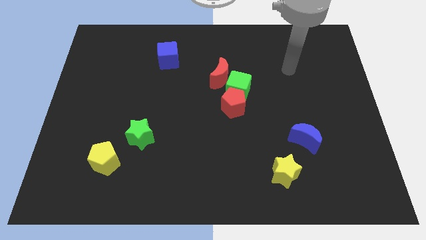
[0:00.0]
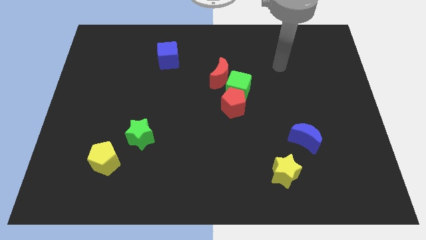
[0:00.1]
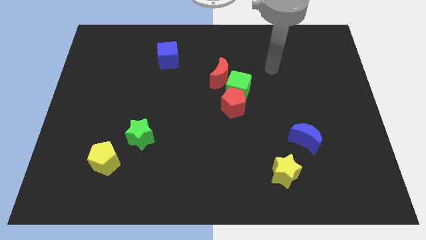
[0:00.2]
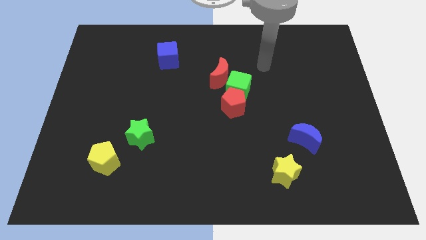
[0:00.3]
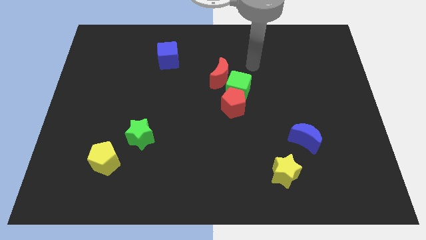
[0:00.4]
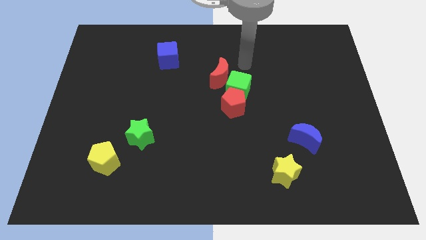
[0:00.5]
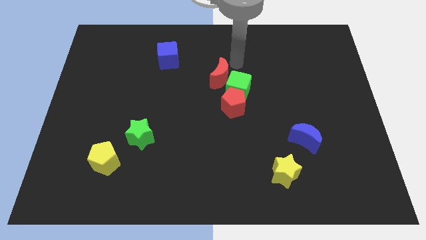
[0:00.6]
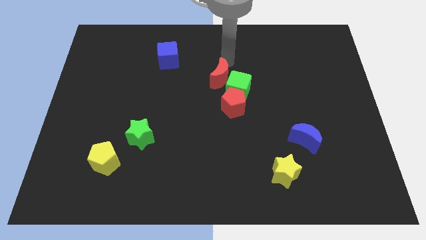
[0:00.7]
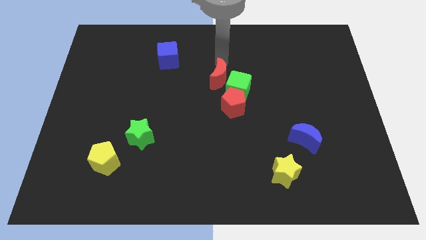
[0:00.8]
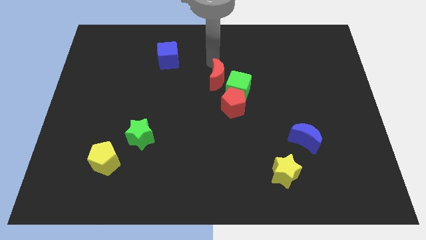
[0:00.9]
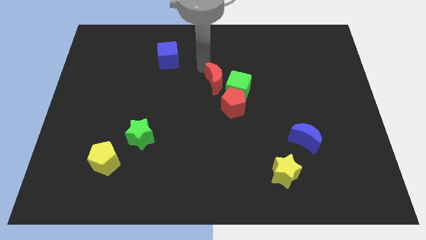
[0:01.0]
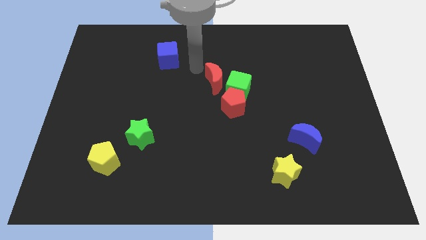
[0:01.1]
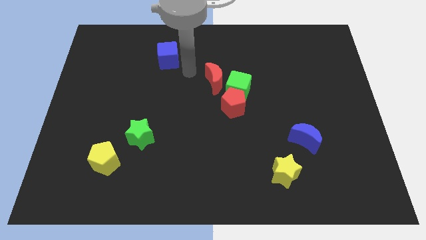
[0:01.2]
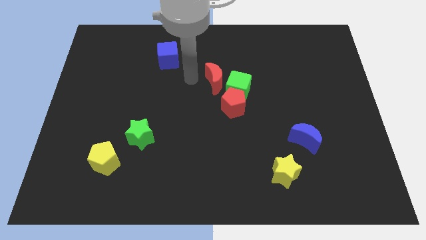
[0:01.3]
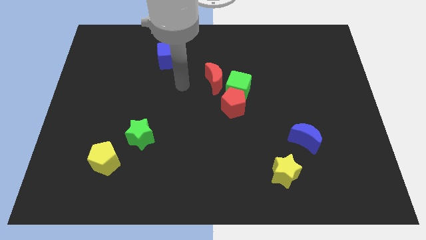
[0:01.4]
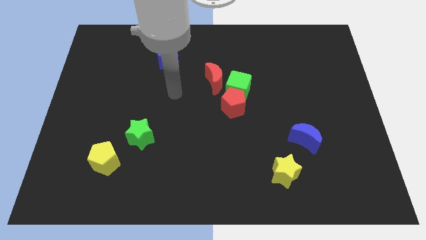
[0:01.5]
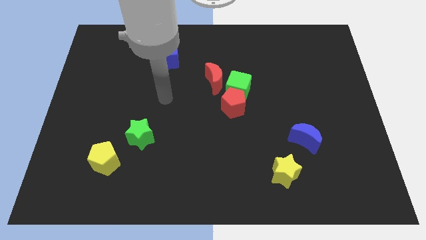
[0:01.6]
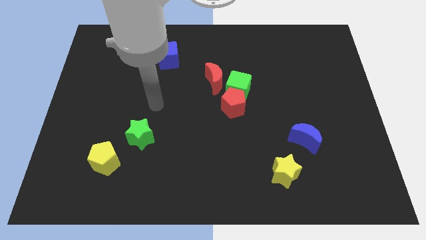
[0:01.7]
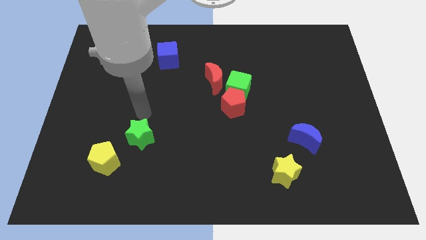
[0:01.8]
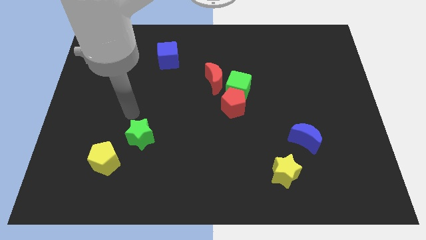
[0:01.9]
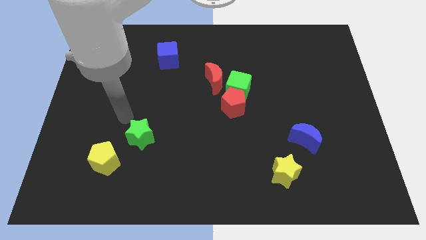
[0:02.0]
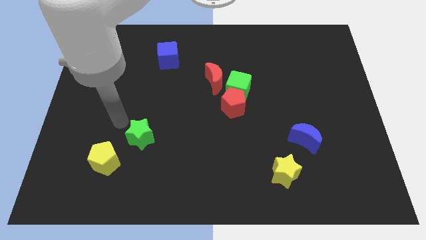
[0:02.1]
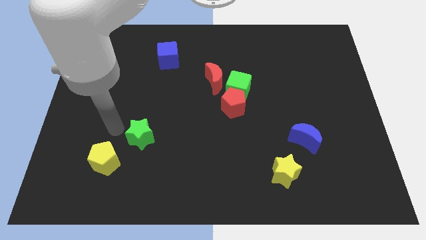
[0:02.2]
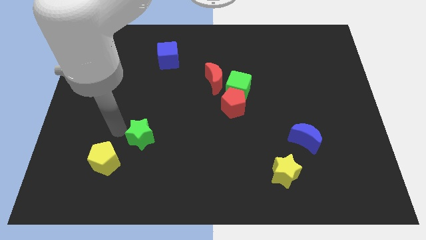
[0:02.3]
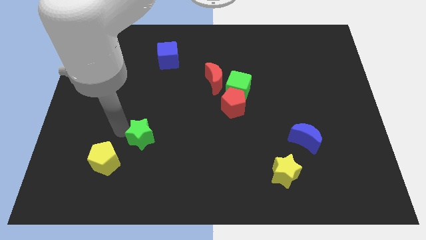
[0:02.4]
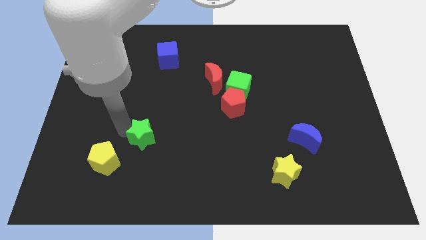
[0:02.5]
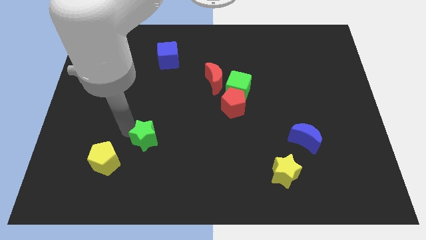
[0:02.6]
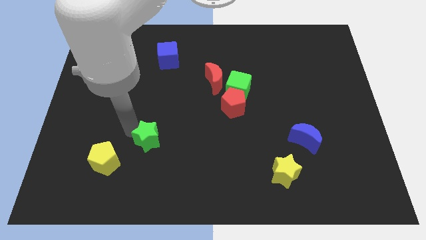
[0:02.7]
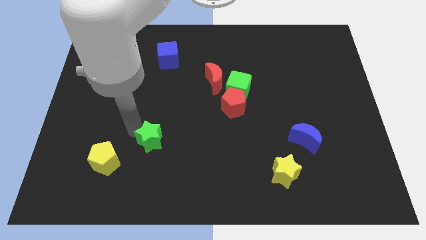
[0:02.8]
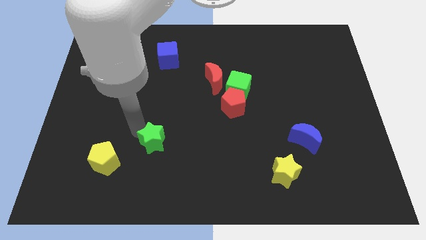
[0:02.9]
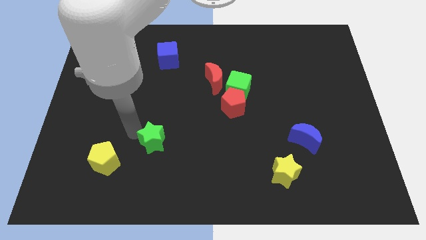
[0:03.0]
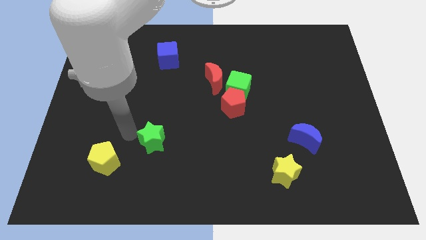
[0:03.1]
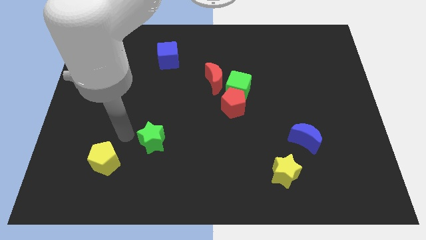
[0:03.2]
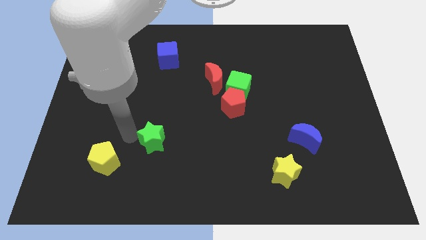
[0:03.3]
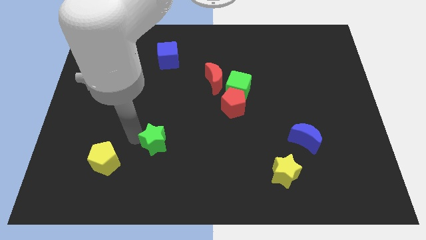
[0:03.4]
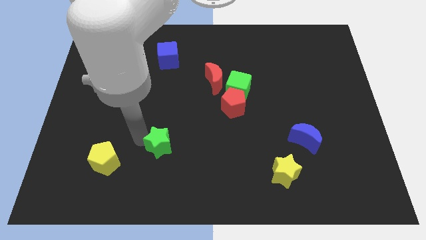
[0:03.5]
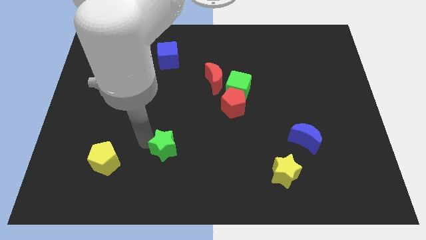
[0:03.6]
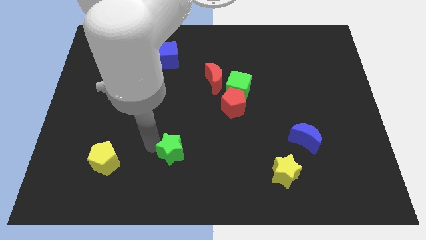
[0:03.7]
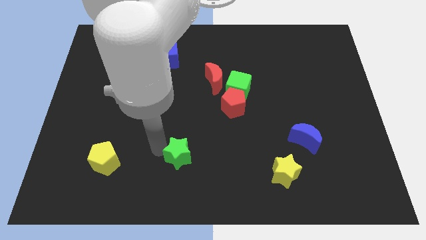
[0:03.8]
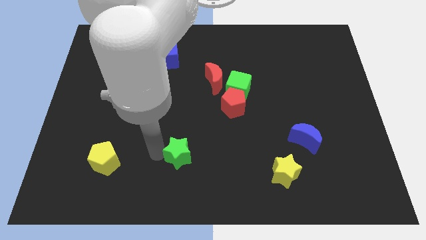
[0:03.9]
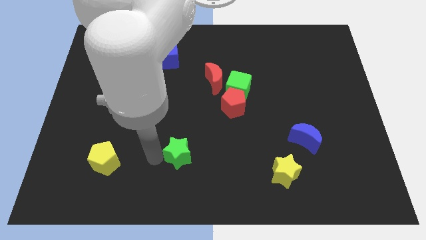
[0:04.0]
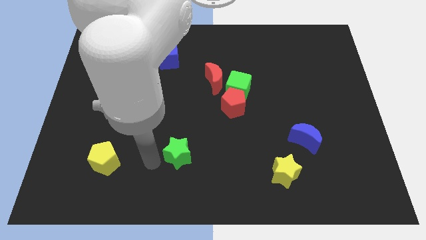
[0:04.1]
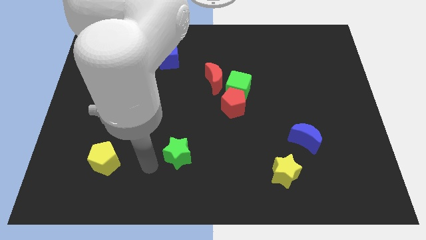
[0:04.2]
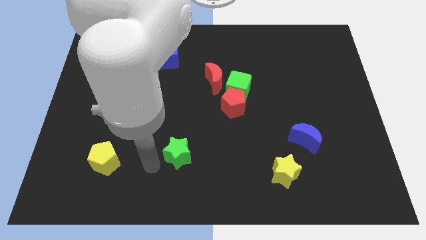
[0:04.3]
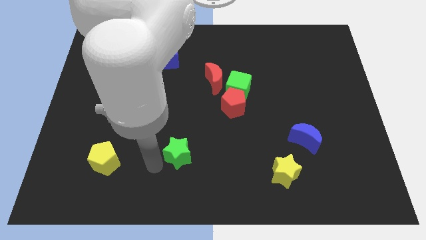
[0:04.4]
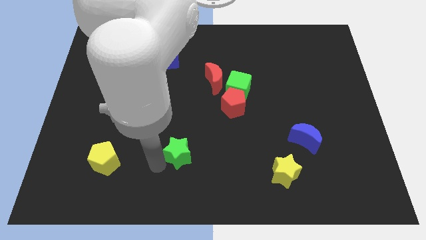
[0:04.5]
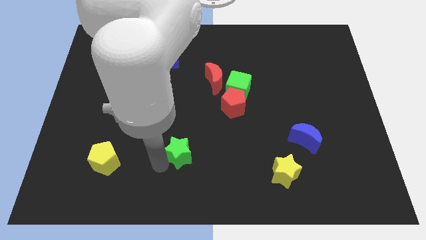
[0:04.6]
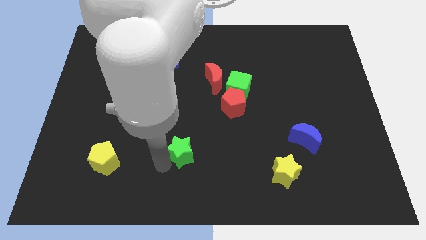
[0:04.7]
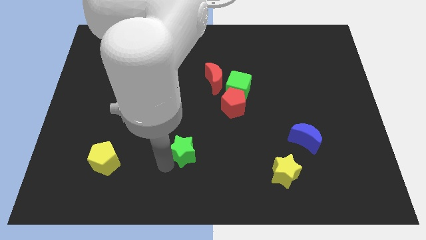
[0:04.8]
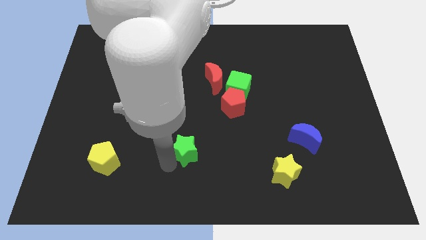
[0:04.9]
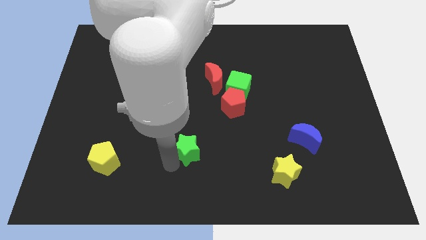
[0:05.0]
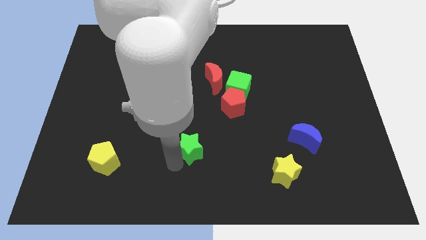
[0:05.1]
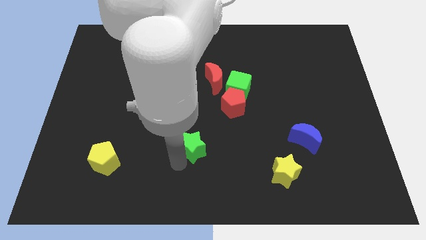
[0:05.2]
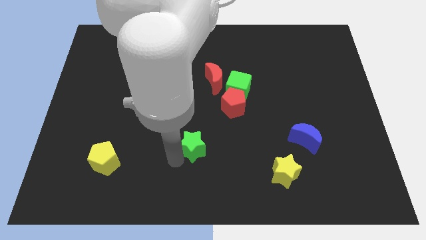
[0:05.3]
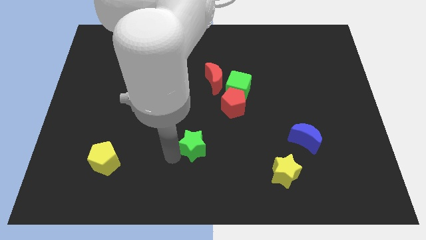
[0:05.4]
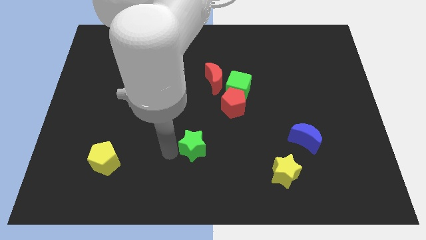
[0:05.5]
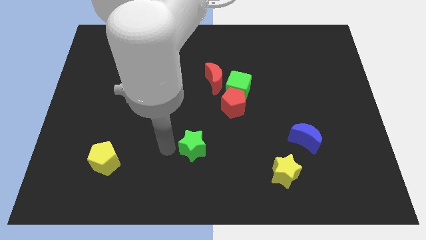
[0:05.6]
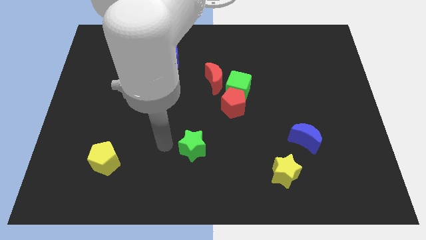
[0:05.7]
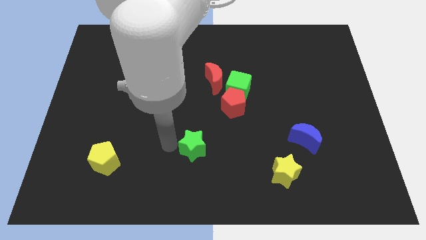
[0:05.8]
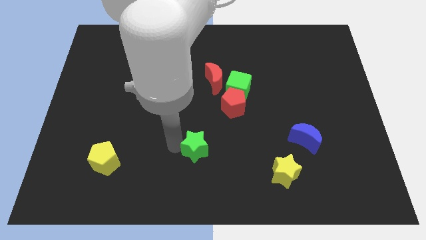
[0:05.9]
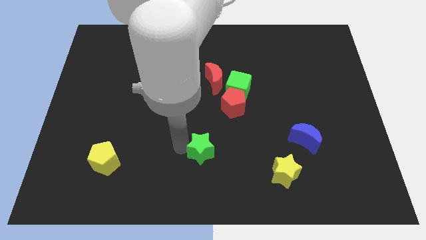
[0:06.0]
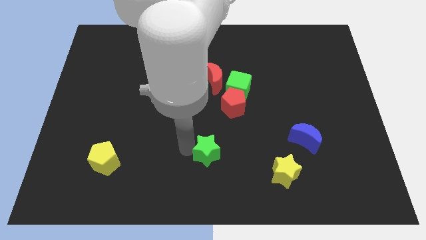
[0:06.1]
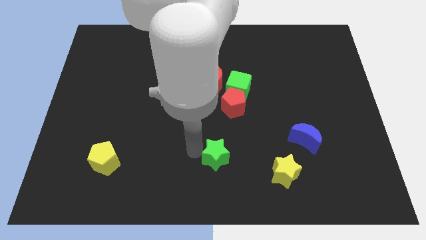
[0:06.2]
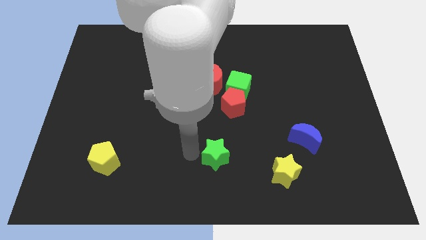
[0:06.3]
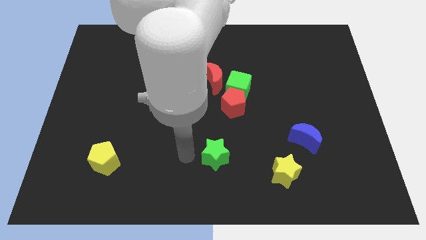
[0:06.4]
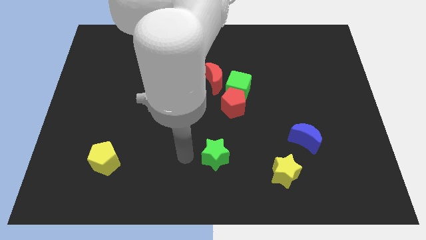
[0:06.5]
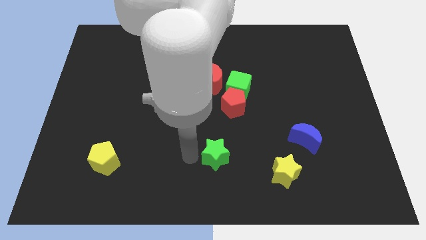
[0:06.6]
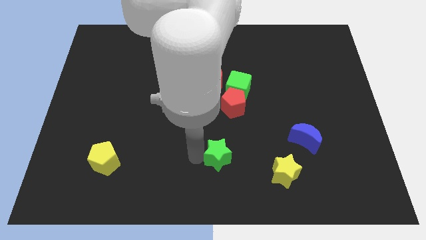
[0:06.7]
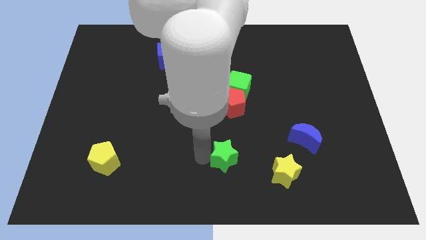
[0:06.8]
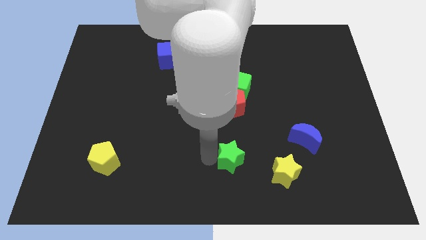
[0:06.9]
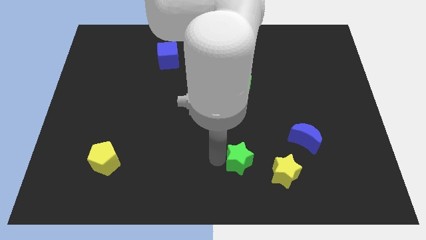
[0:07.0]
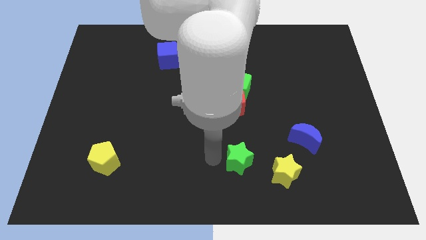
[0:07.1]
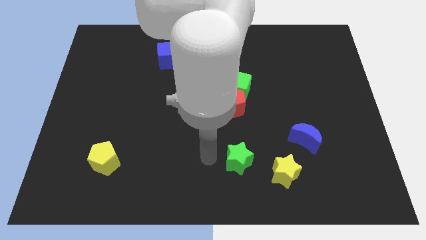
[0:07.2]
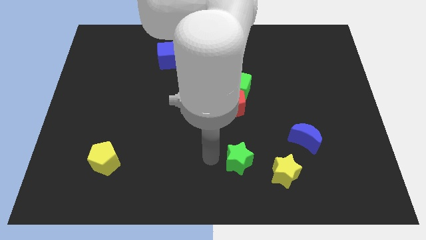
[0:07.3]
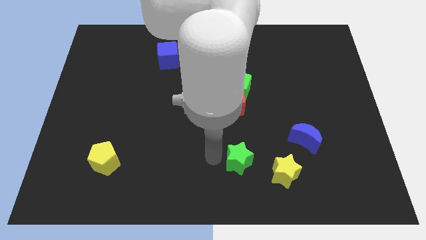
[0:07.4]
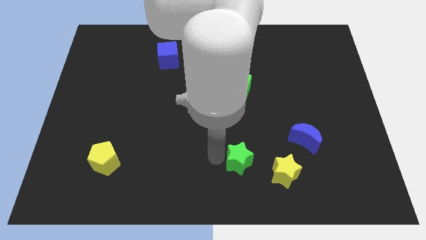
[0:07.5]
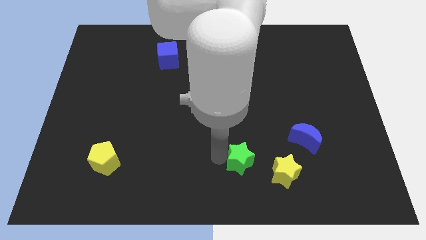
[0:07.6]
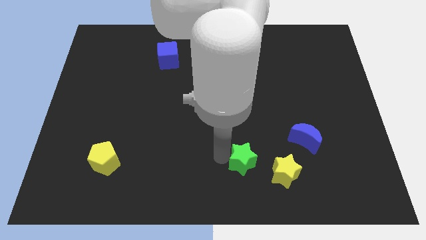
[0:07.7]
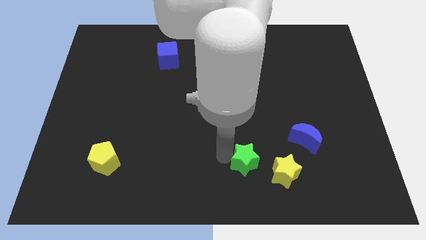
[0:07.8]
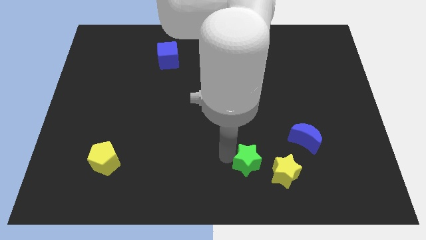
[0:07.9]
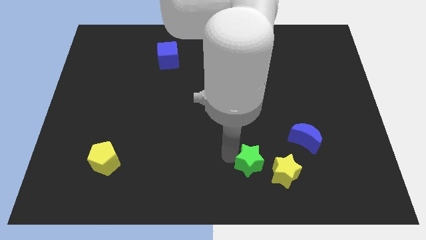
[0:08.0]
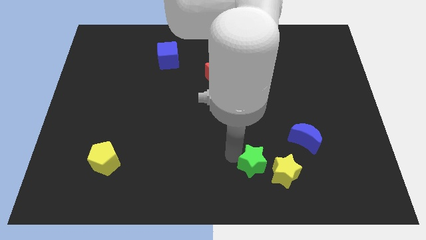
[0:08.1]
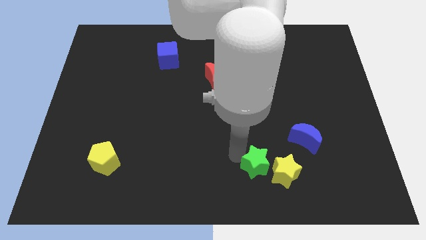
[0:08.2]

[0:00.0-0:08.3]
put the green star next to the yellow star
